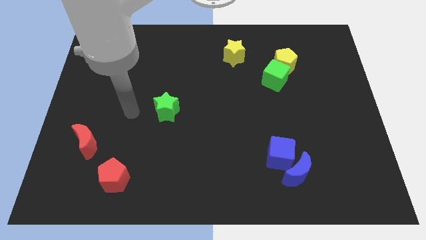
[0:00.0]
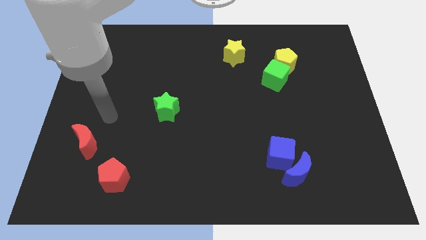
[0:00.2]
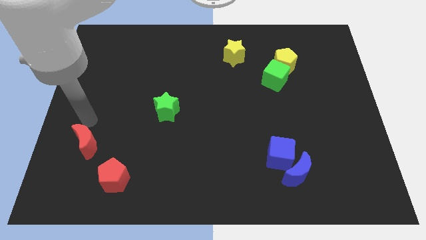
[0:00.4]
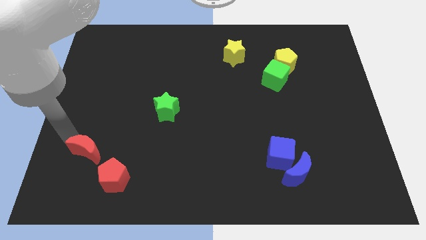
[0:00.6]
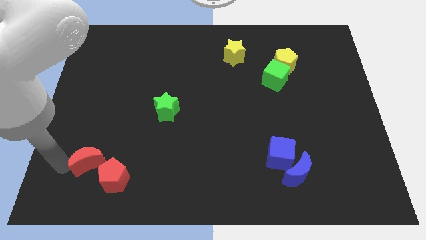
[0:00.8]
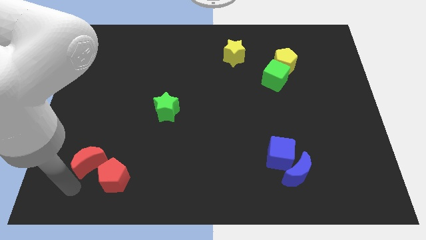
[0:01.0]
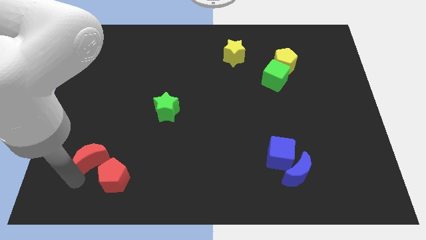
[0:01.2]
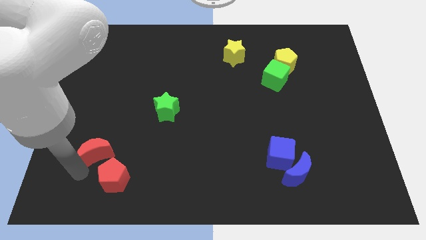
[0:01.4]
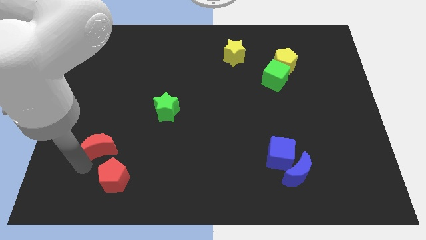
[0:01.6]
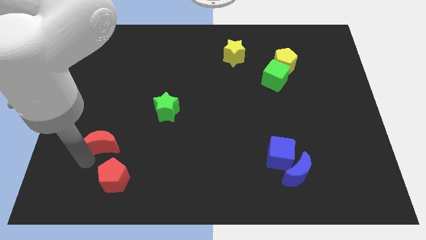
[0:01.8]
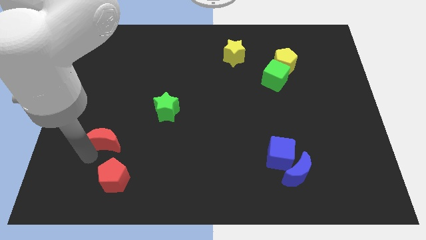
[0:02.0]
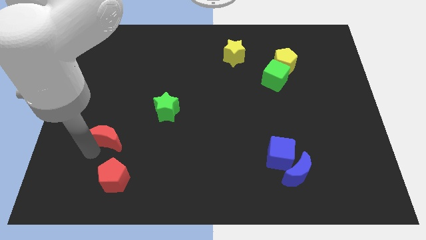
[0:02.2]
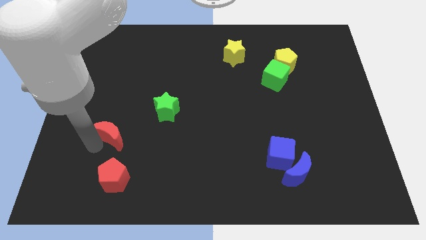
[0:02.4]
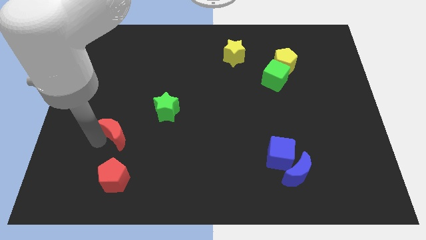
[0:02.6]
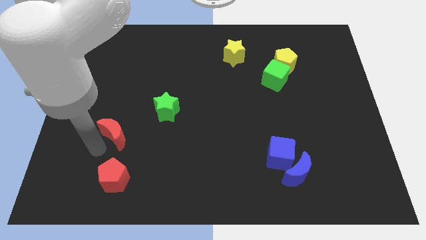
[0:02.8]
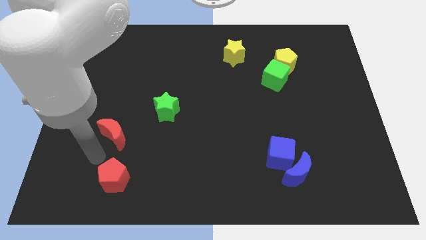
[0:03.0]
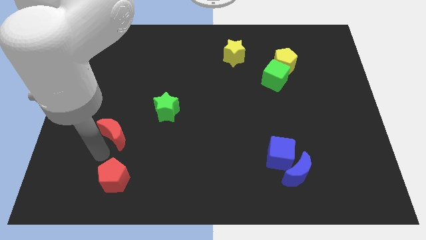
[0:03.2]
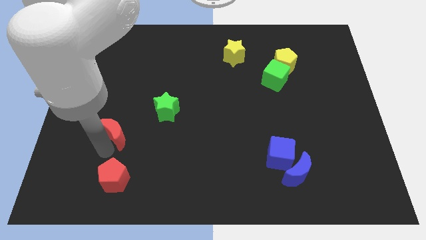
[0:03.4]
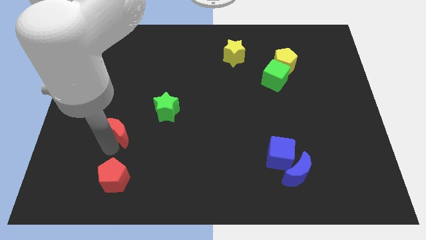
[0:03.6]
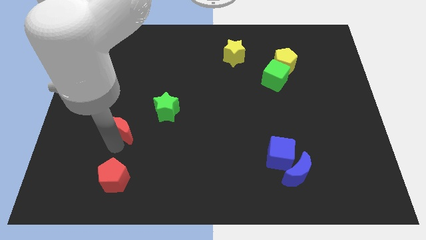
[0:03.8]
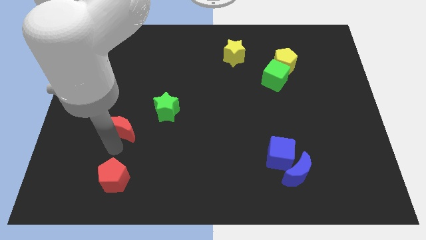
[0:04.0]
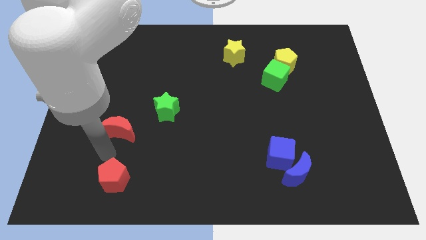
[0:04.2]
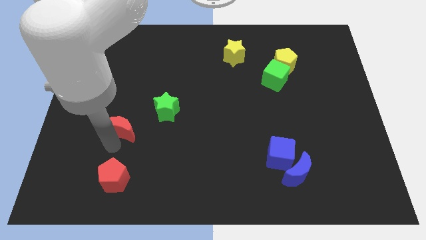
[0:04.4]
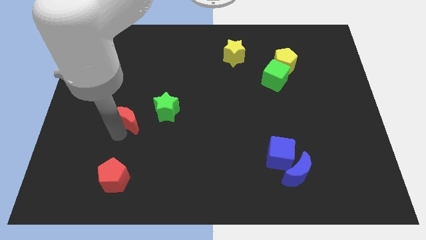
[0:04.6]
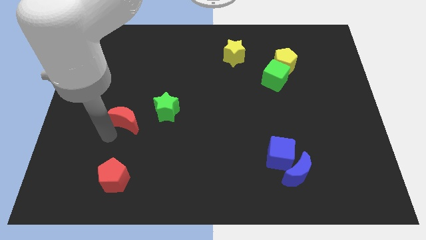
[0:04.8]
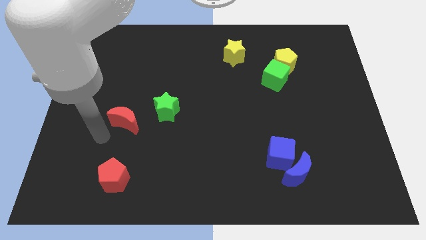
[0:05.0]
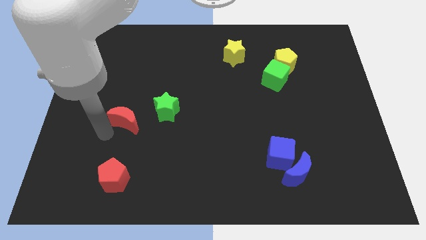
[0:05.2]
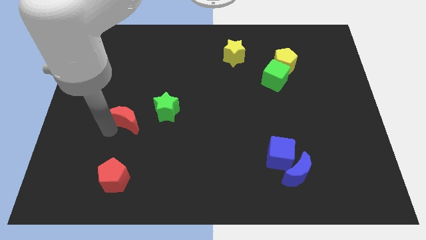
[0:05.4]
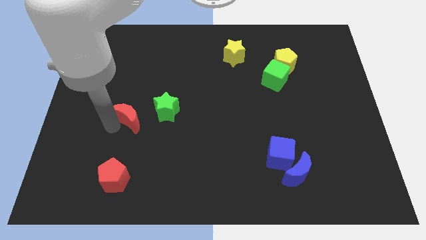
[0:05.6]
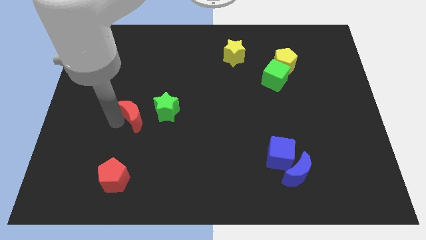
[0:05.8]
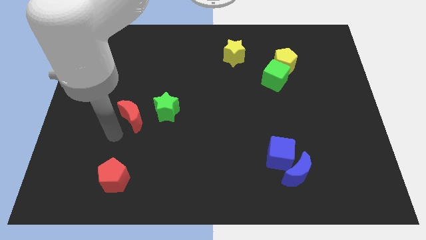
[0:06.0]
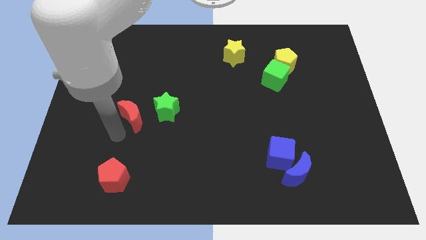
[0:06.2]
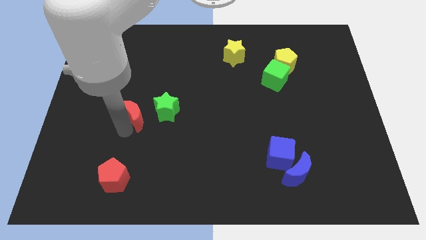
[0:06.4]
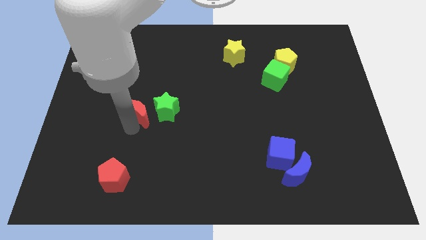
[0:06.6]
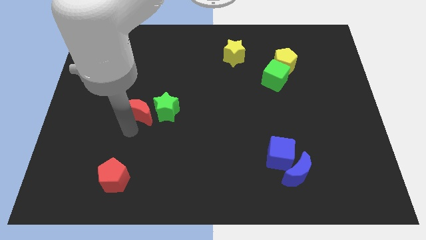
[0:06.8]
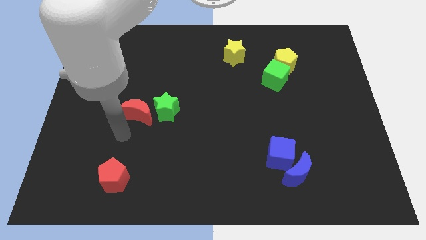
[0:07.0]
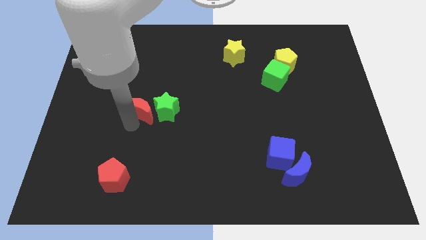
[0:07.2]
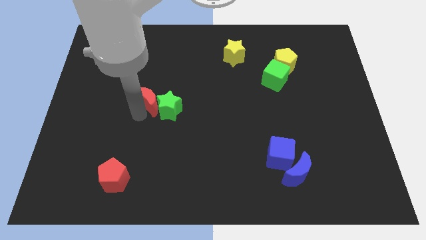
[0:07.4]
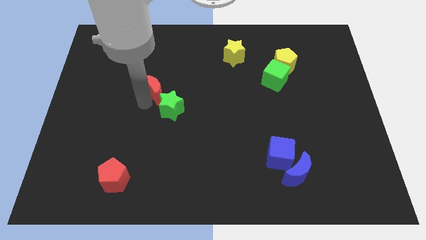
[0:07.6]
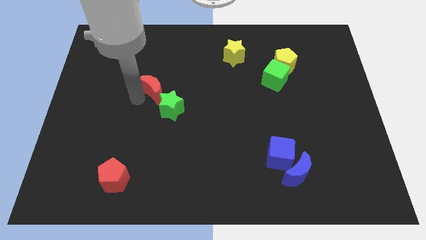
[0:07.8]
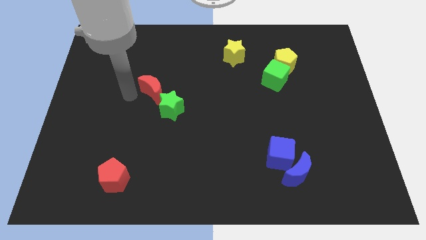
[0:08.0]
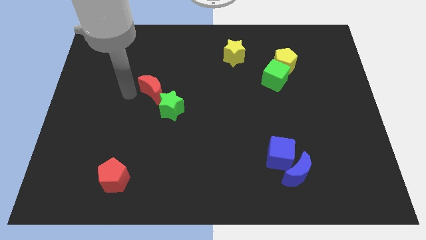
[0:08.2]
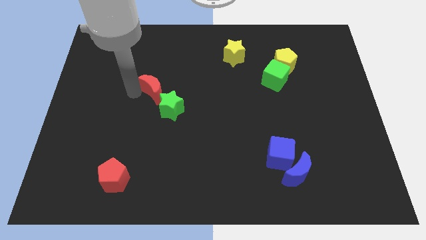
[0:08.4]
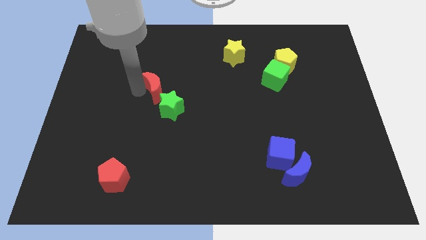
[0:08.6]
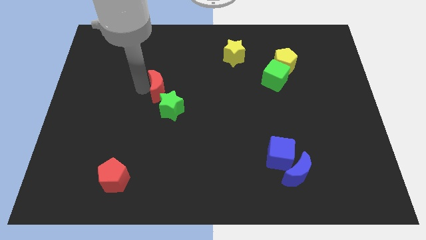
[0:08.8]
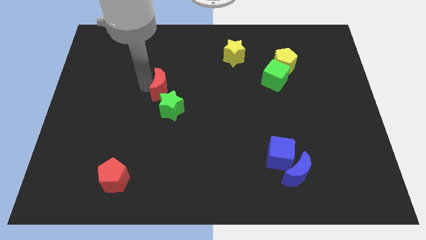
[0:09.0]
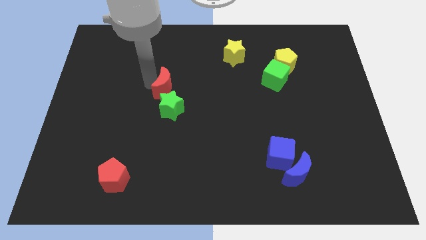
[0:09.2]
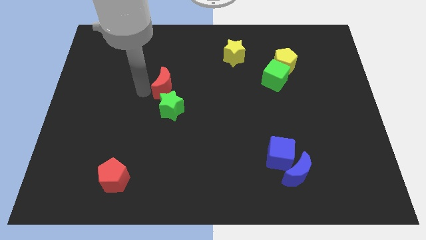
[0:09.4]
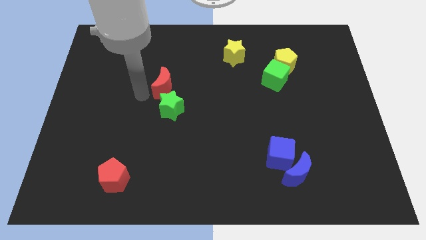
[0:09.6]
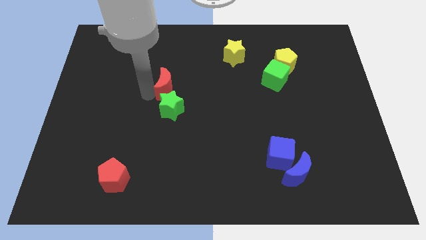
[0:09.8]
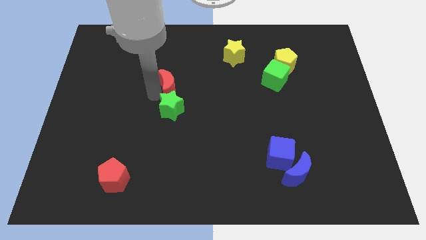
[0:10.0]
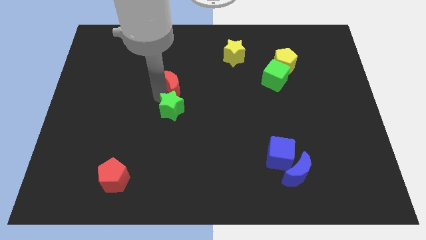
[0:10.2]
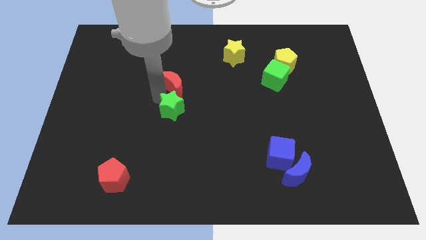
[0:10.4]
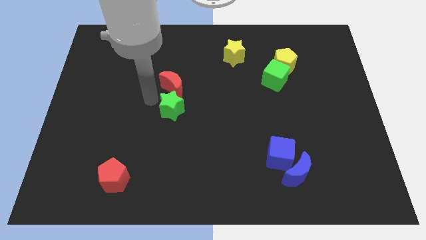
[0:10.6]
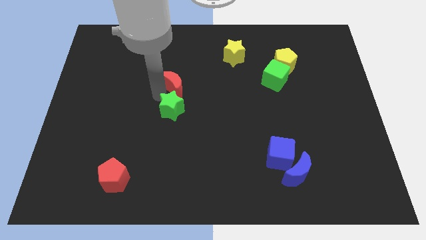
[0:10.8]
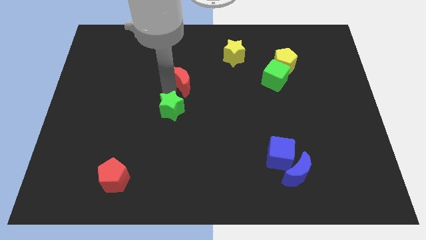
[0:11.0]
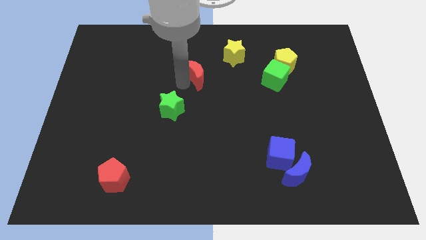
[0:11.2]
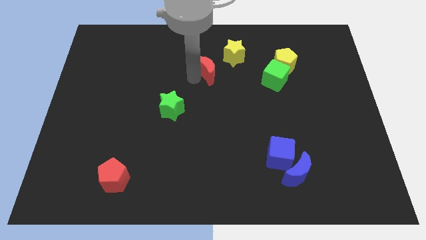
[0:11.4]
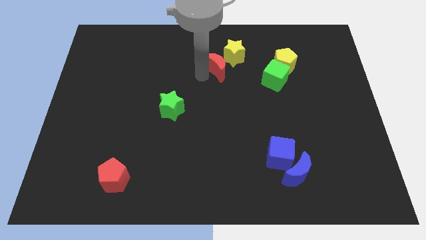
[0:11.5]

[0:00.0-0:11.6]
push the red moon towards the yellow star

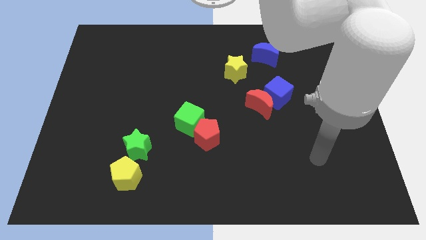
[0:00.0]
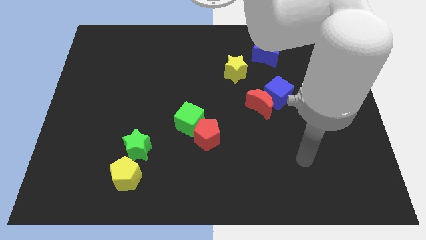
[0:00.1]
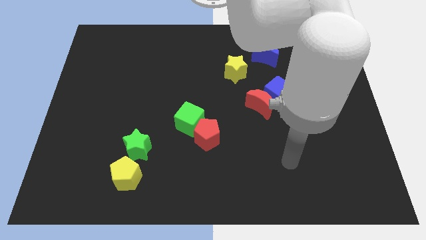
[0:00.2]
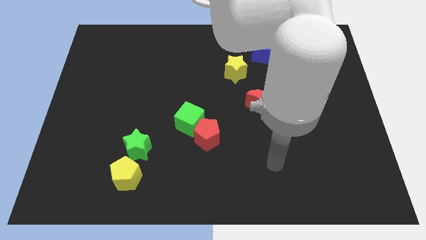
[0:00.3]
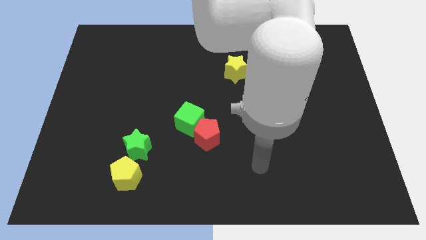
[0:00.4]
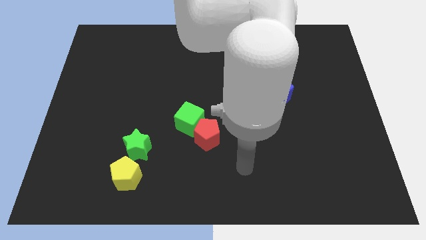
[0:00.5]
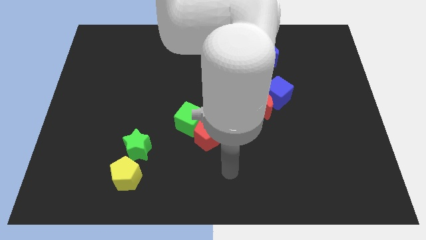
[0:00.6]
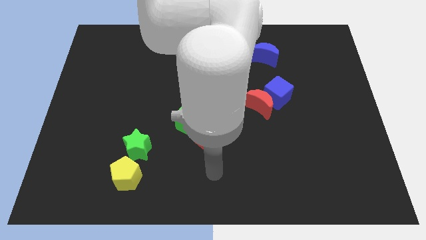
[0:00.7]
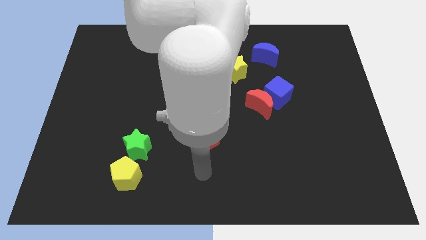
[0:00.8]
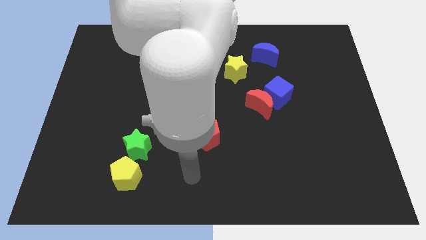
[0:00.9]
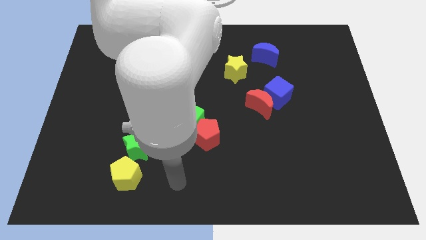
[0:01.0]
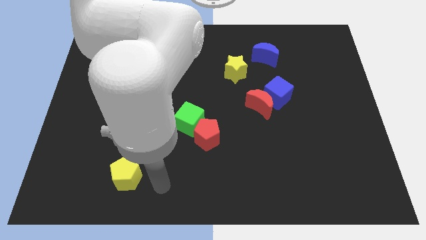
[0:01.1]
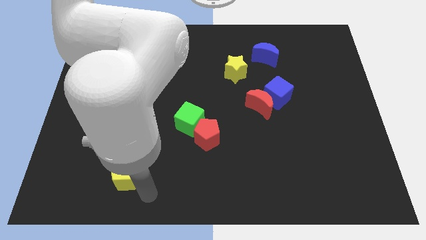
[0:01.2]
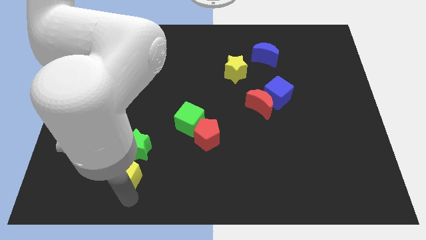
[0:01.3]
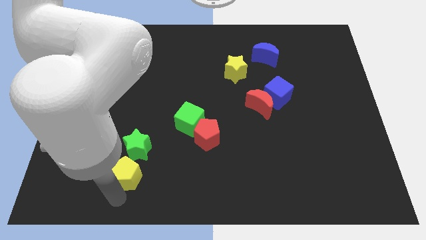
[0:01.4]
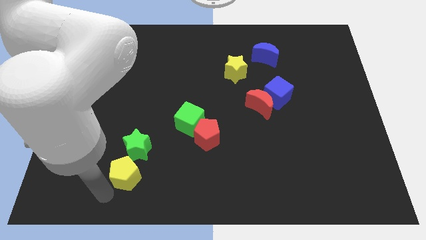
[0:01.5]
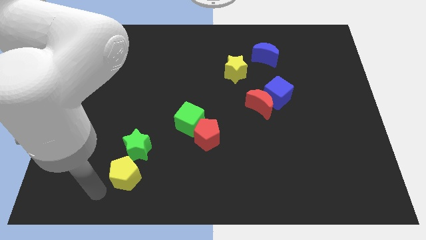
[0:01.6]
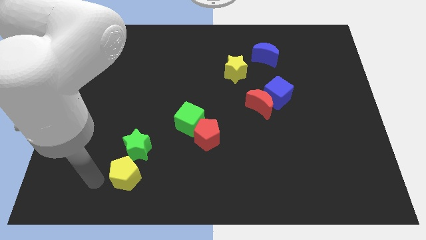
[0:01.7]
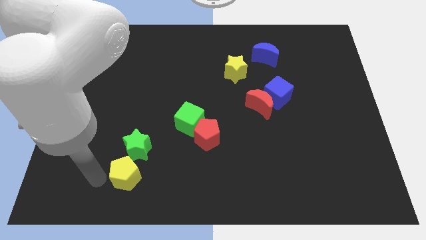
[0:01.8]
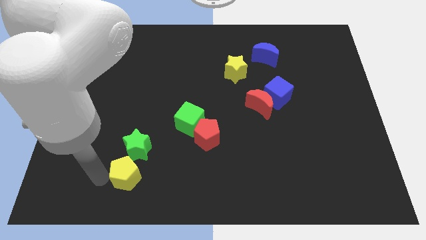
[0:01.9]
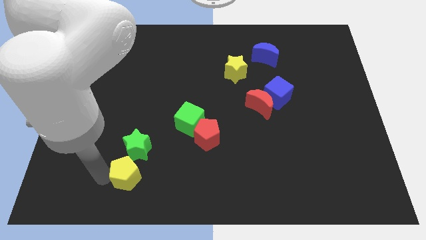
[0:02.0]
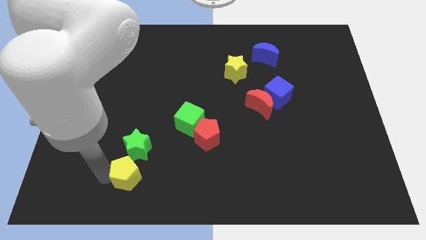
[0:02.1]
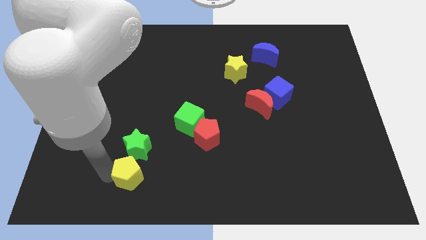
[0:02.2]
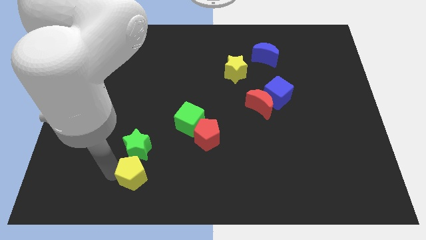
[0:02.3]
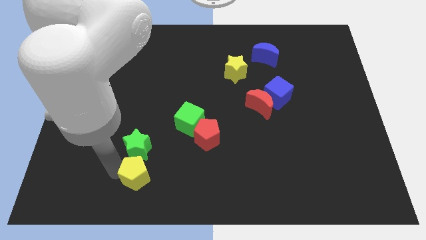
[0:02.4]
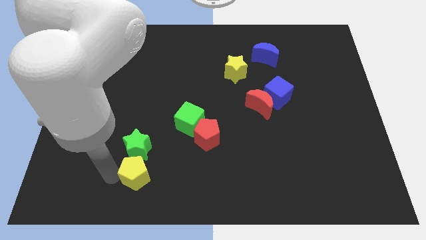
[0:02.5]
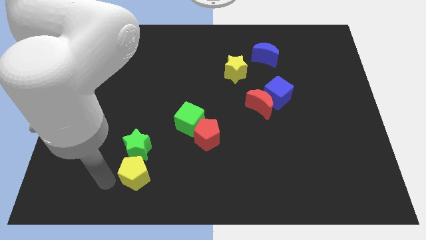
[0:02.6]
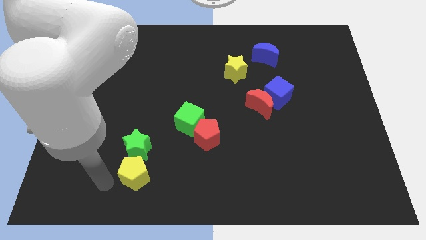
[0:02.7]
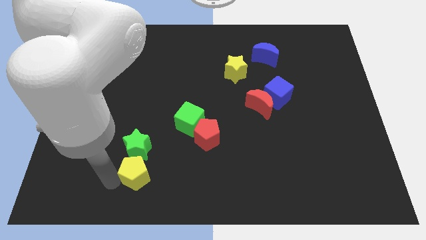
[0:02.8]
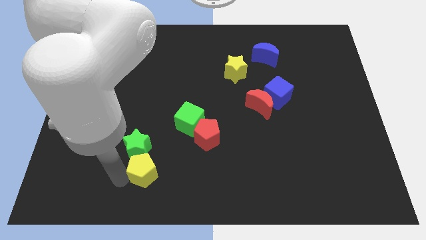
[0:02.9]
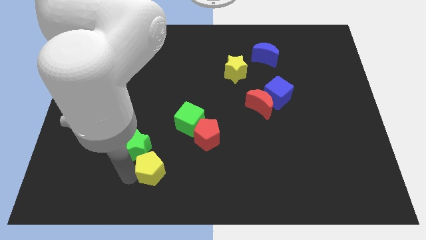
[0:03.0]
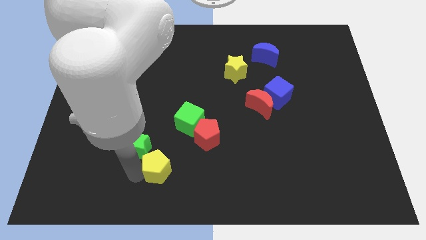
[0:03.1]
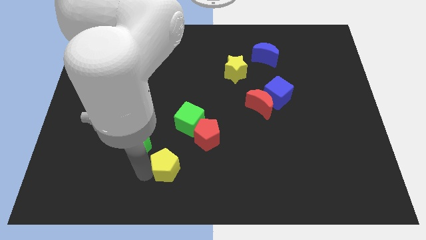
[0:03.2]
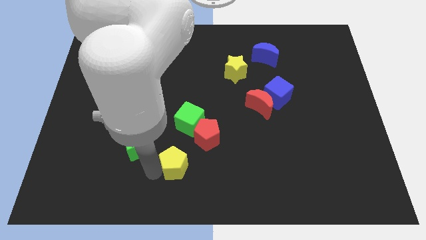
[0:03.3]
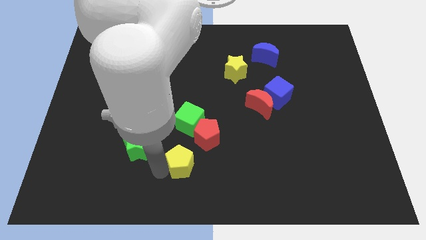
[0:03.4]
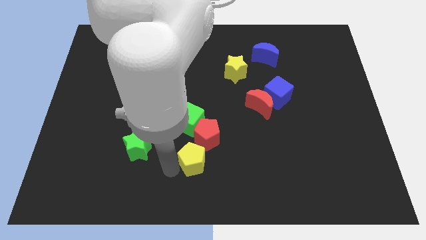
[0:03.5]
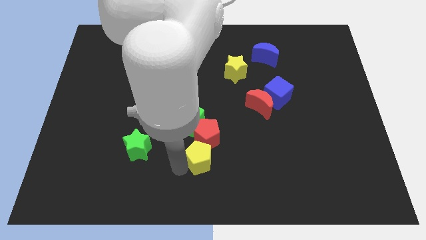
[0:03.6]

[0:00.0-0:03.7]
push the yellow pentagon close to the red pentagon
